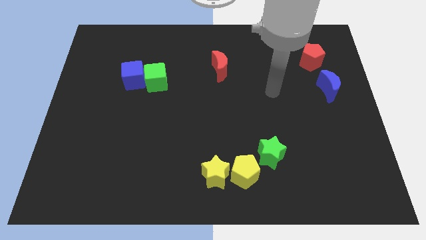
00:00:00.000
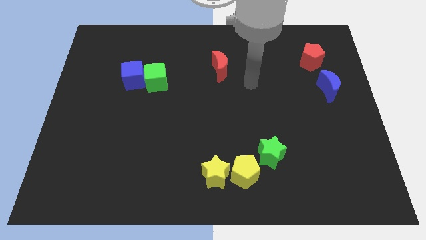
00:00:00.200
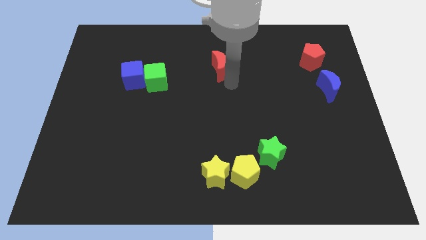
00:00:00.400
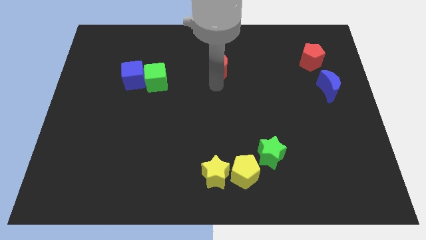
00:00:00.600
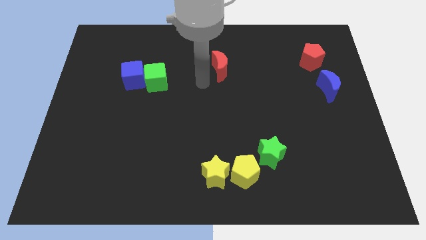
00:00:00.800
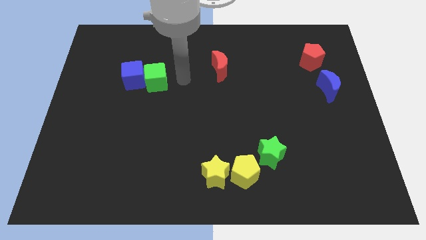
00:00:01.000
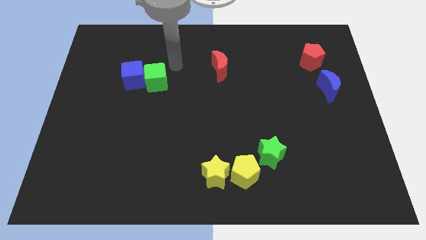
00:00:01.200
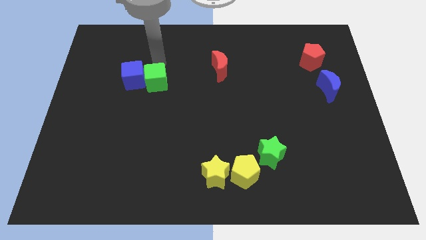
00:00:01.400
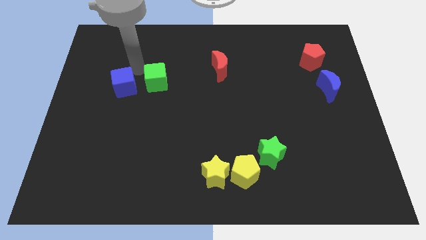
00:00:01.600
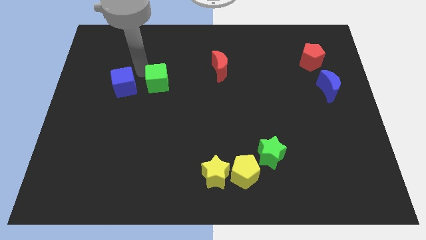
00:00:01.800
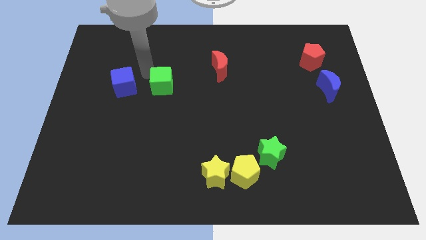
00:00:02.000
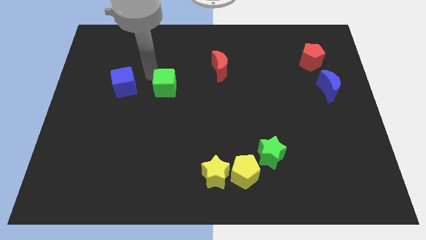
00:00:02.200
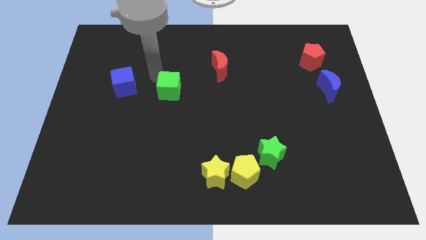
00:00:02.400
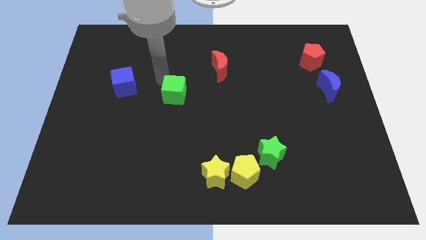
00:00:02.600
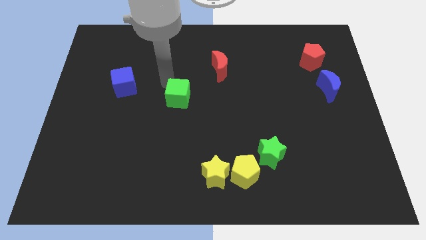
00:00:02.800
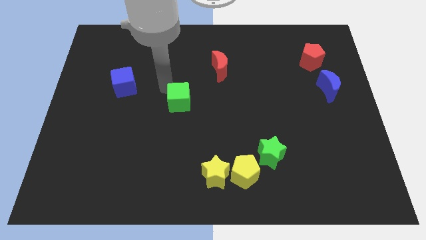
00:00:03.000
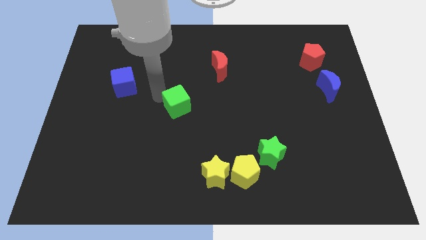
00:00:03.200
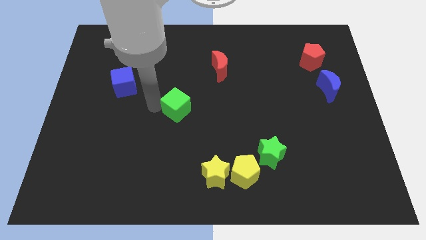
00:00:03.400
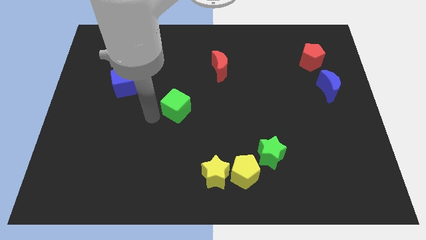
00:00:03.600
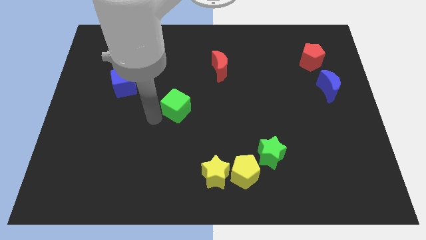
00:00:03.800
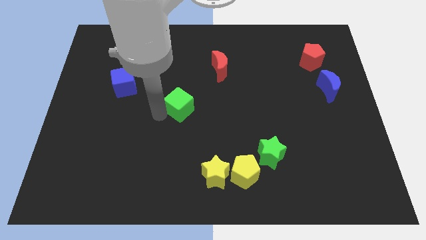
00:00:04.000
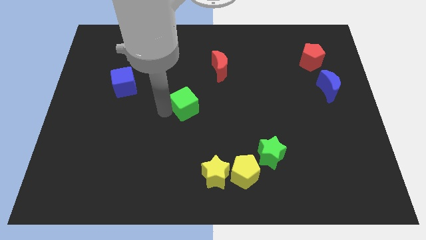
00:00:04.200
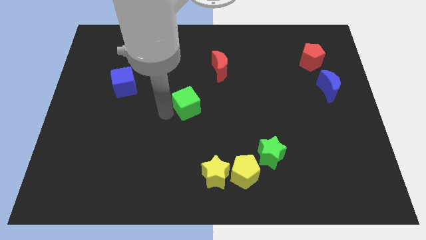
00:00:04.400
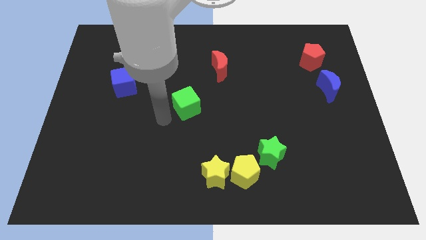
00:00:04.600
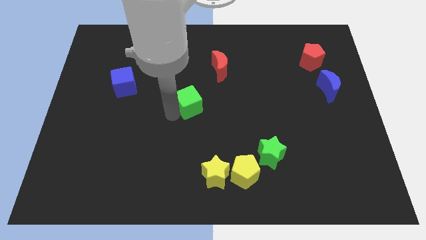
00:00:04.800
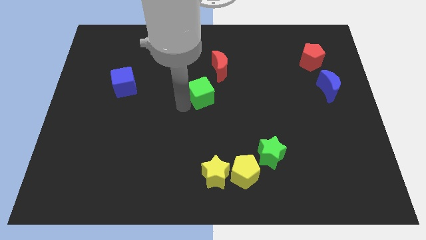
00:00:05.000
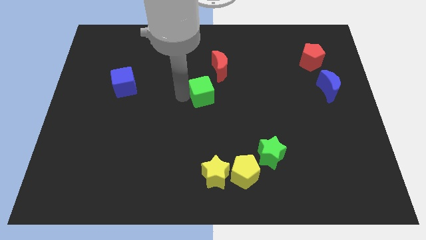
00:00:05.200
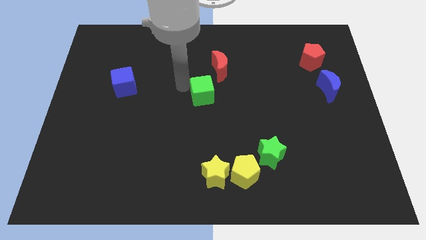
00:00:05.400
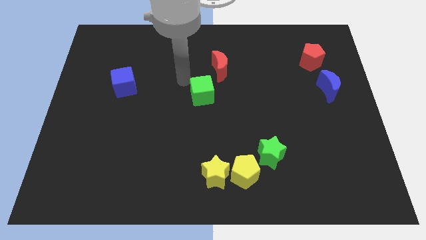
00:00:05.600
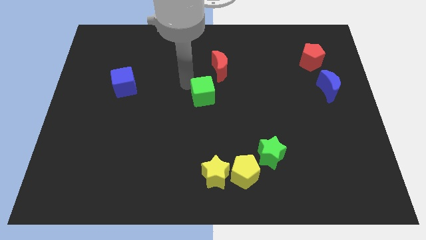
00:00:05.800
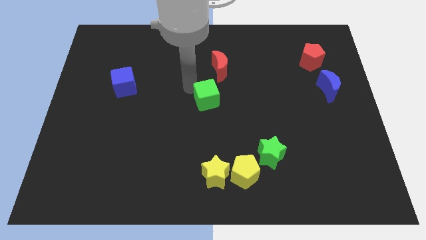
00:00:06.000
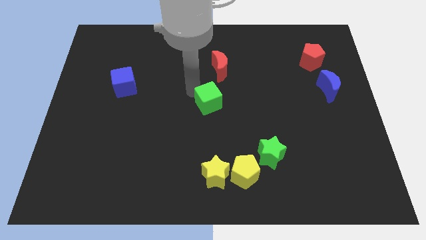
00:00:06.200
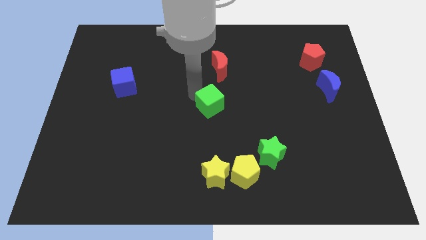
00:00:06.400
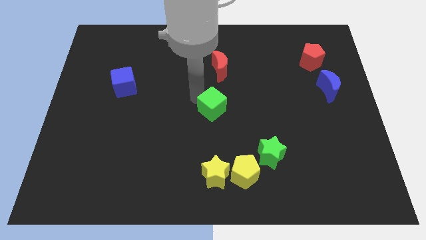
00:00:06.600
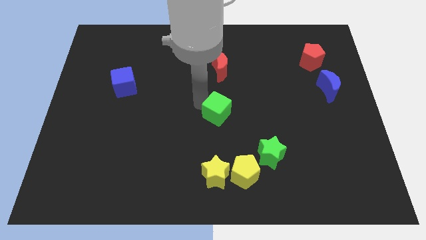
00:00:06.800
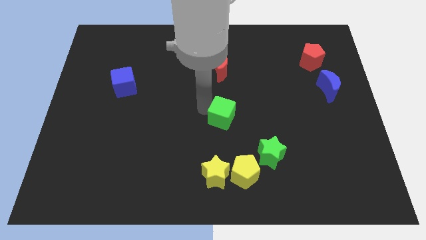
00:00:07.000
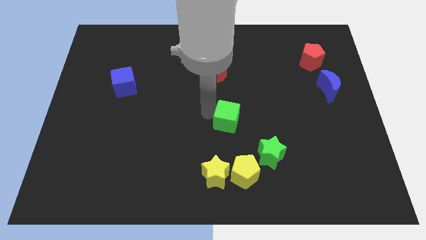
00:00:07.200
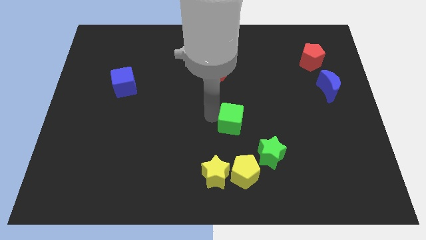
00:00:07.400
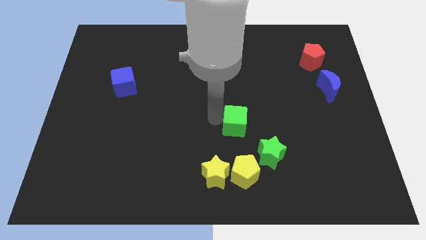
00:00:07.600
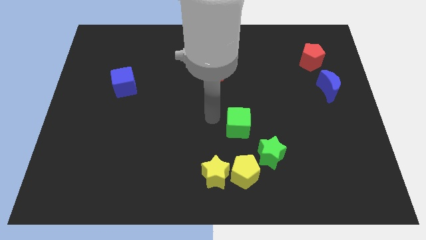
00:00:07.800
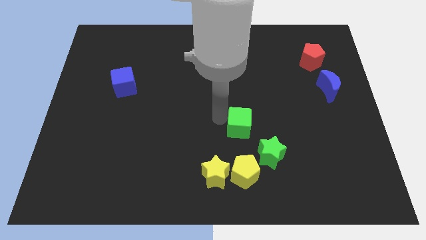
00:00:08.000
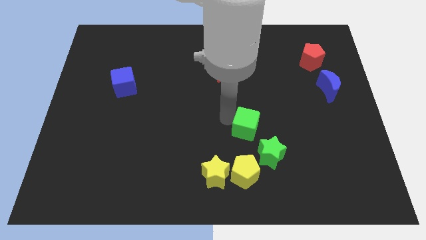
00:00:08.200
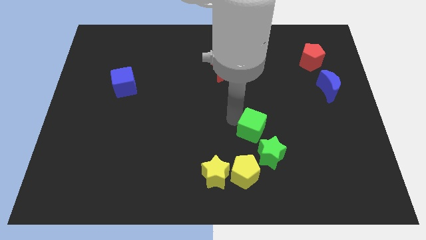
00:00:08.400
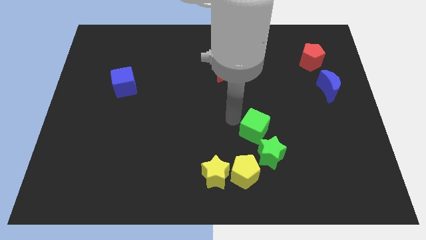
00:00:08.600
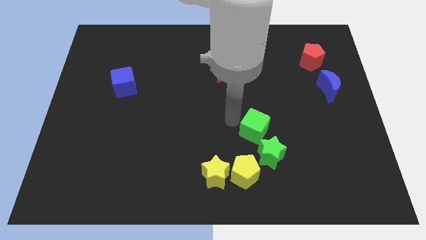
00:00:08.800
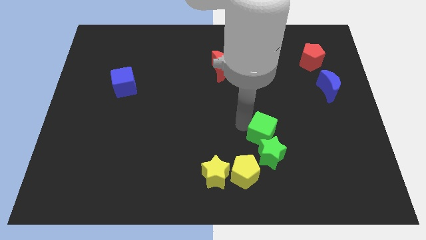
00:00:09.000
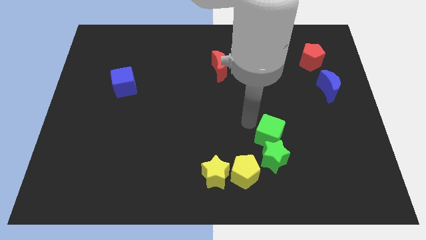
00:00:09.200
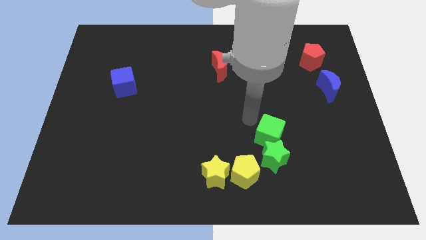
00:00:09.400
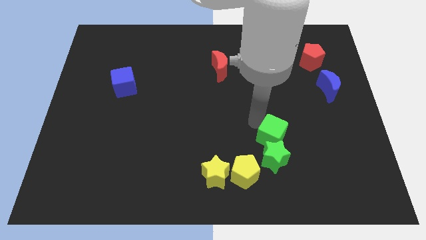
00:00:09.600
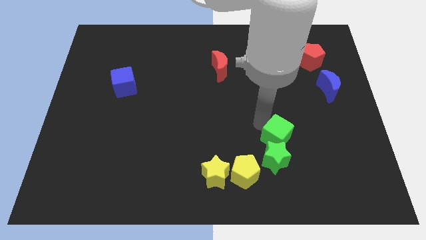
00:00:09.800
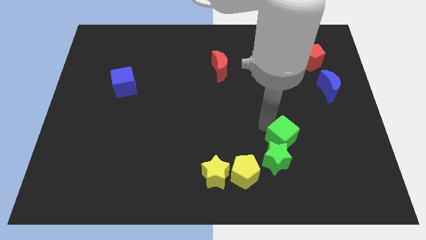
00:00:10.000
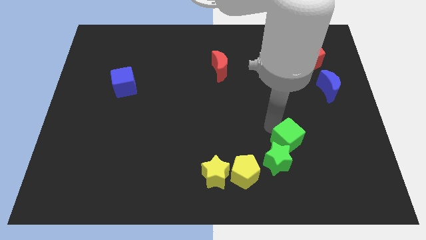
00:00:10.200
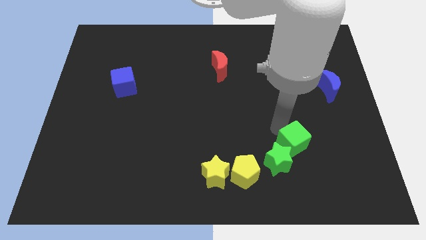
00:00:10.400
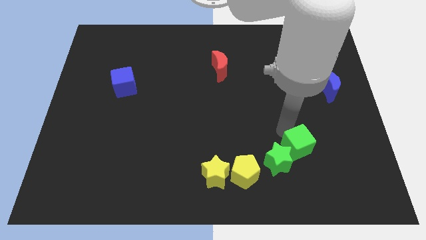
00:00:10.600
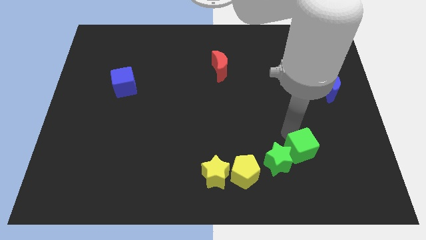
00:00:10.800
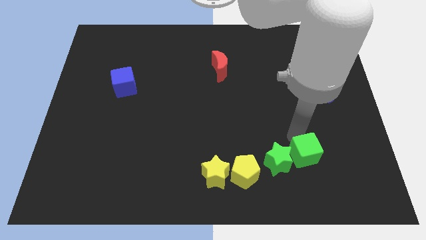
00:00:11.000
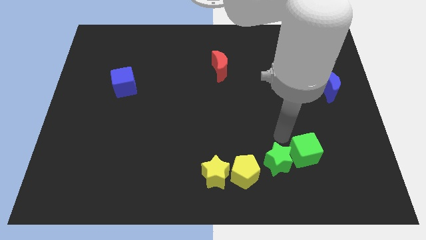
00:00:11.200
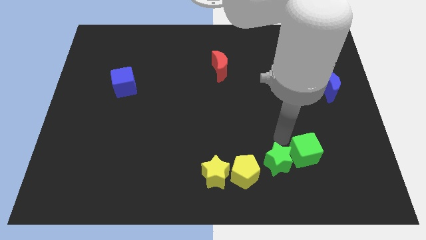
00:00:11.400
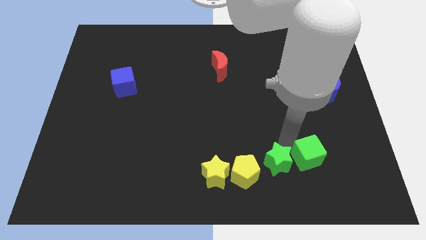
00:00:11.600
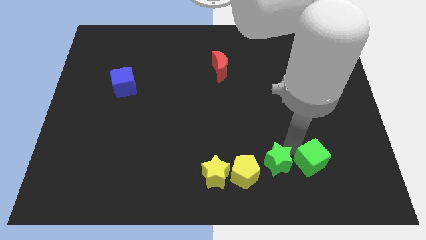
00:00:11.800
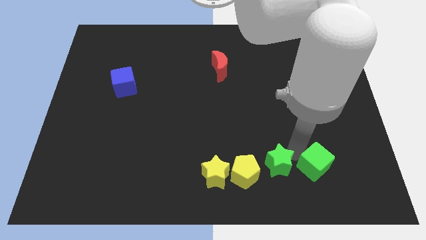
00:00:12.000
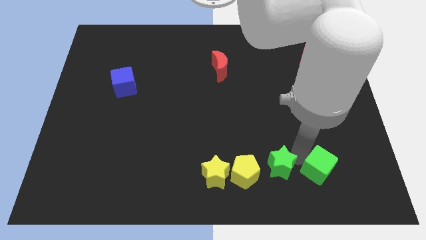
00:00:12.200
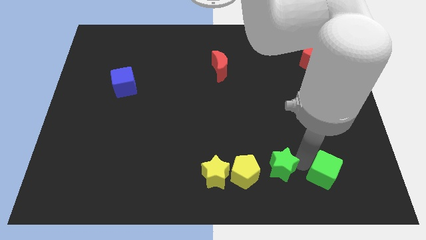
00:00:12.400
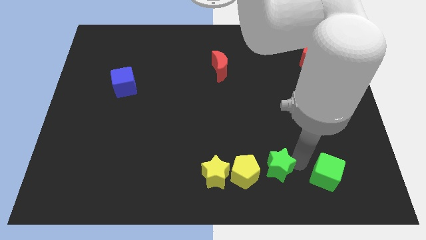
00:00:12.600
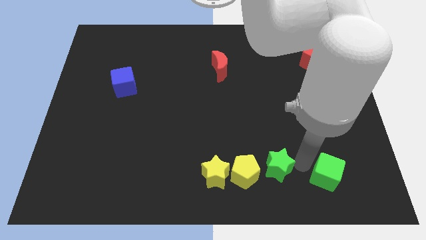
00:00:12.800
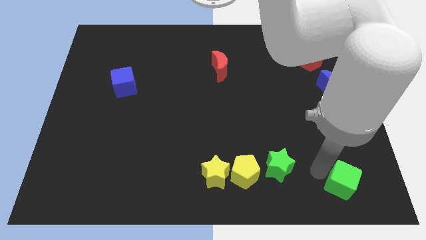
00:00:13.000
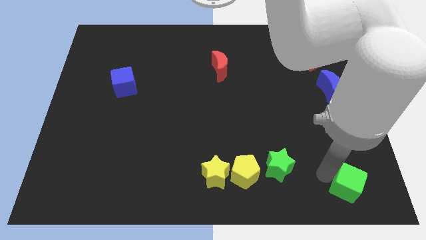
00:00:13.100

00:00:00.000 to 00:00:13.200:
put the green cube to the bottom right
